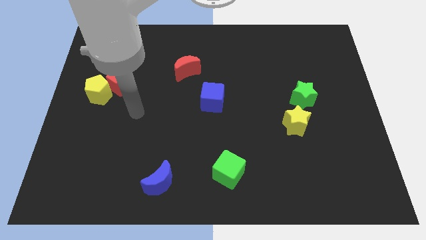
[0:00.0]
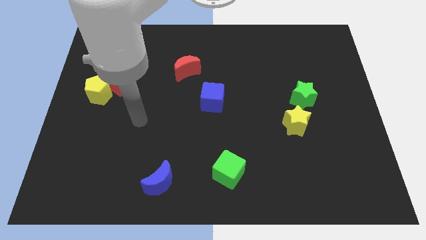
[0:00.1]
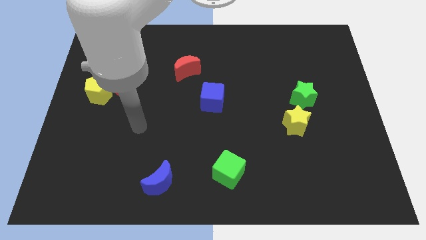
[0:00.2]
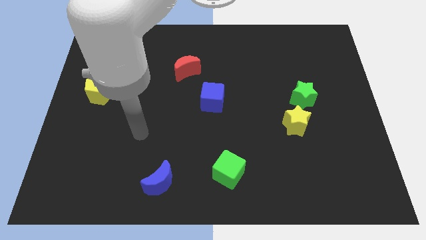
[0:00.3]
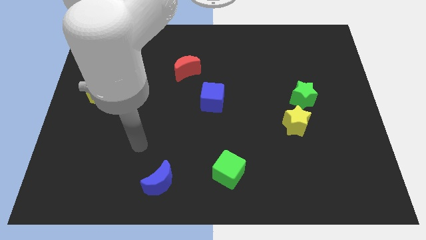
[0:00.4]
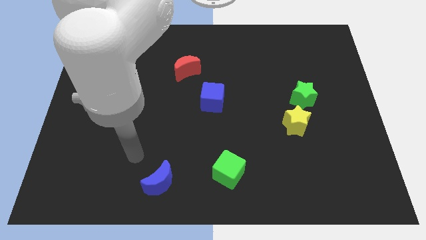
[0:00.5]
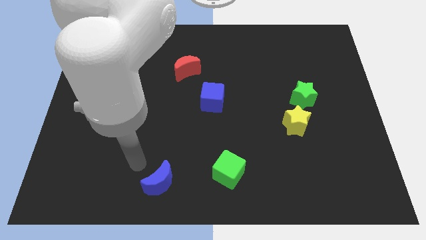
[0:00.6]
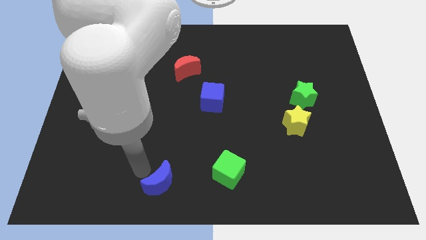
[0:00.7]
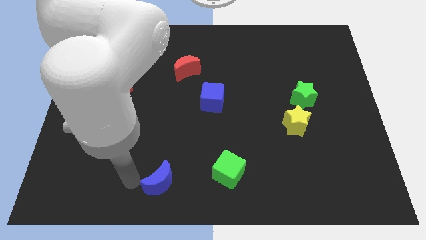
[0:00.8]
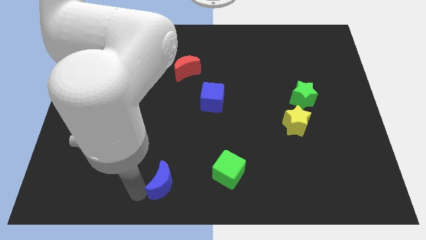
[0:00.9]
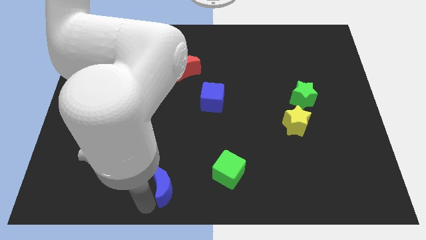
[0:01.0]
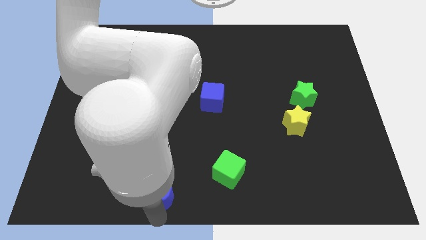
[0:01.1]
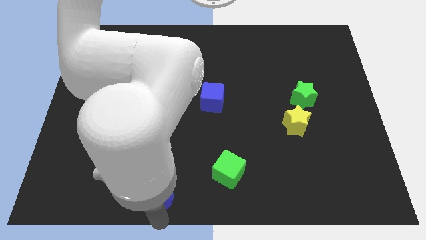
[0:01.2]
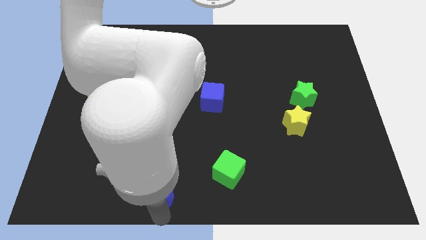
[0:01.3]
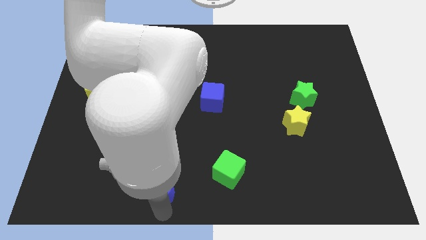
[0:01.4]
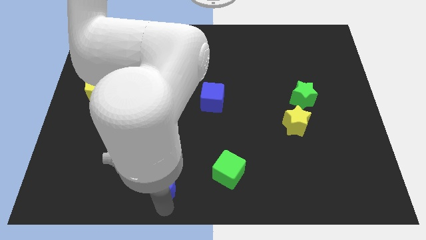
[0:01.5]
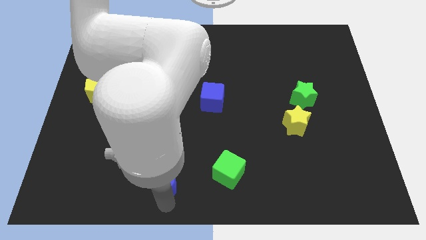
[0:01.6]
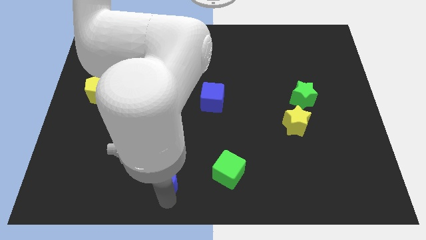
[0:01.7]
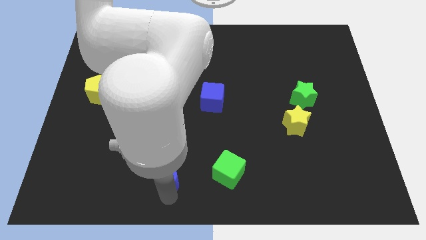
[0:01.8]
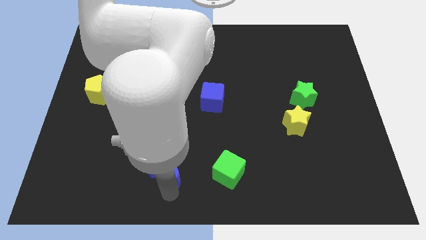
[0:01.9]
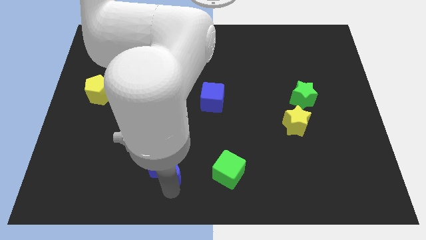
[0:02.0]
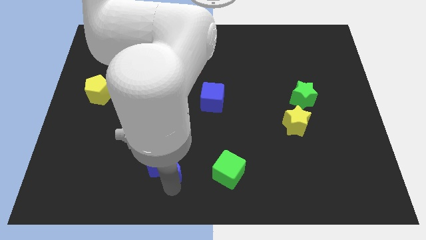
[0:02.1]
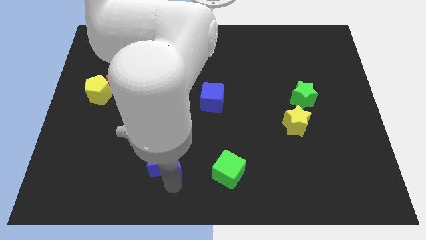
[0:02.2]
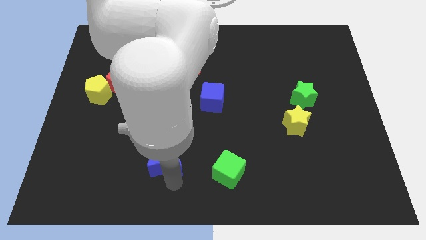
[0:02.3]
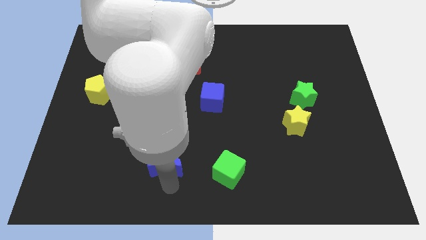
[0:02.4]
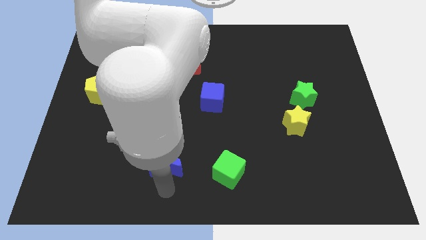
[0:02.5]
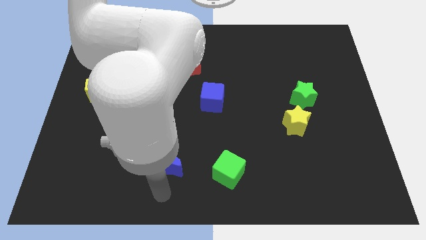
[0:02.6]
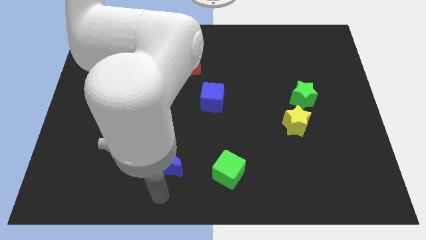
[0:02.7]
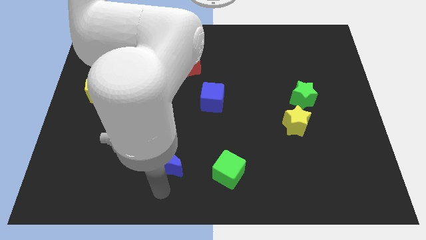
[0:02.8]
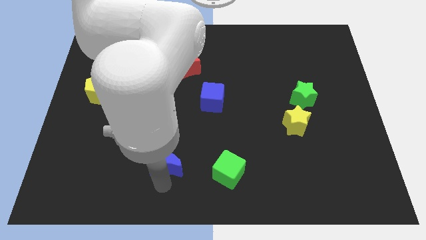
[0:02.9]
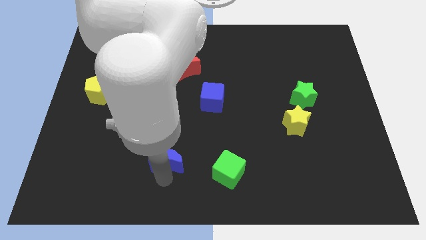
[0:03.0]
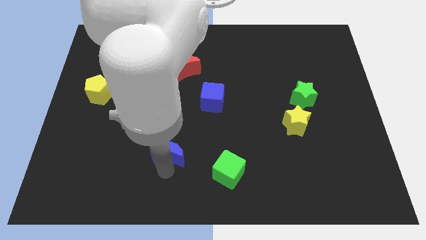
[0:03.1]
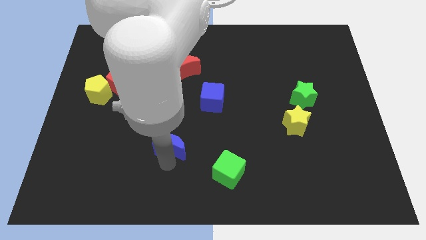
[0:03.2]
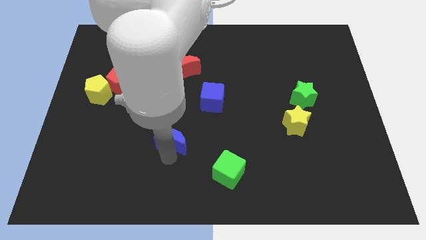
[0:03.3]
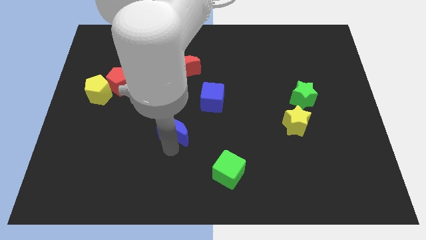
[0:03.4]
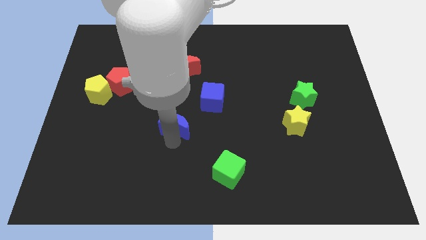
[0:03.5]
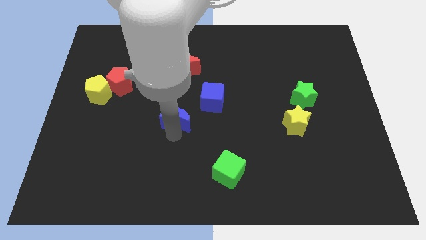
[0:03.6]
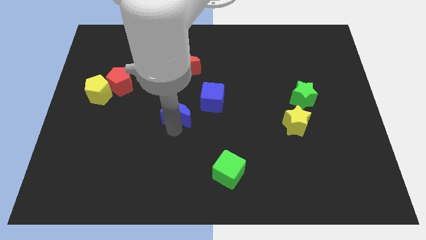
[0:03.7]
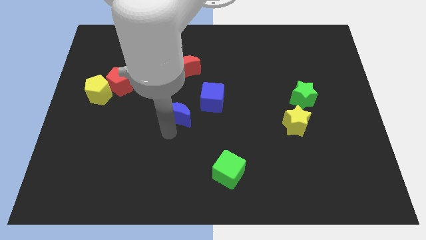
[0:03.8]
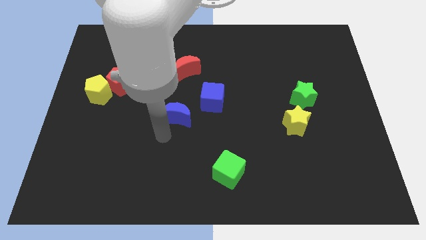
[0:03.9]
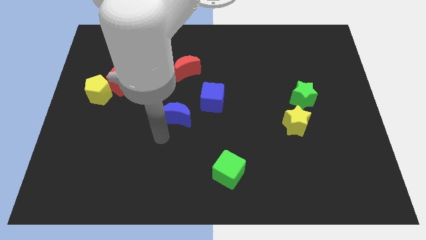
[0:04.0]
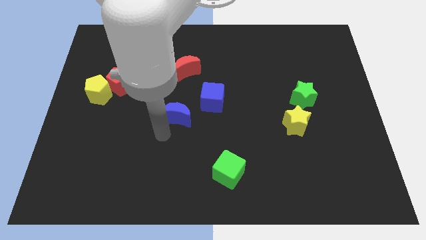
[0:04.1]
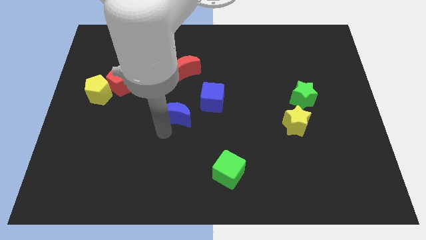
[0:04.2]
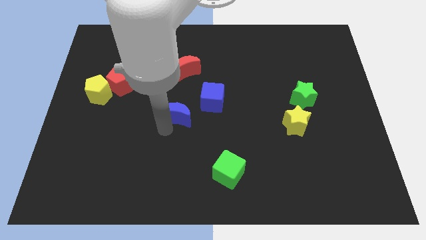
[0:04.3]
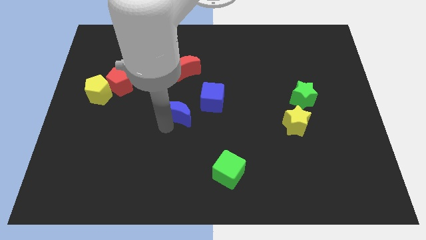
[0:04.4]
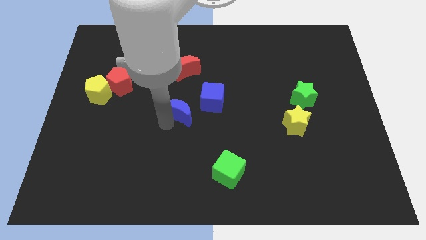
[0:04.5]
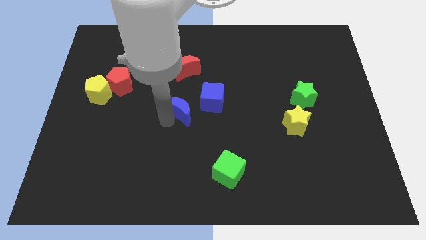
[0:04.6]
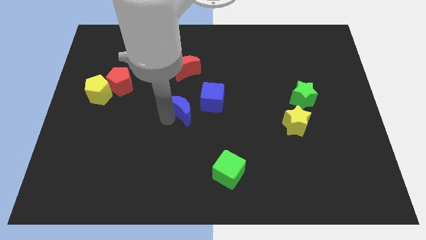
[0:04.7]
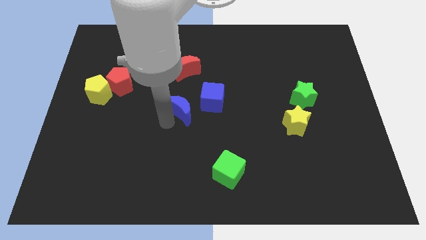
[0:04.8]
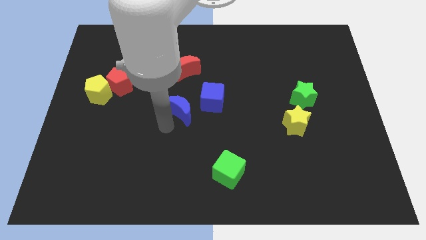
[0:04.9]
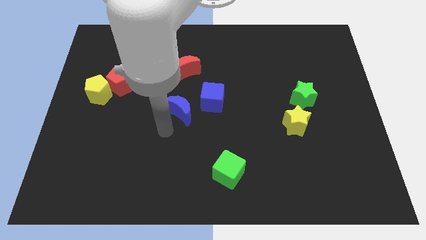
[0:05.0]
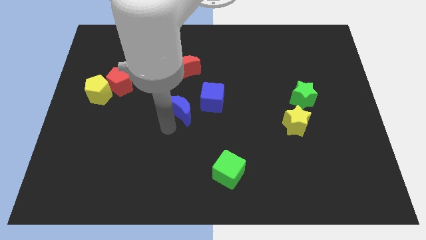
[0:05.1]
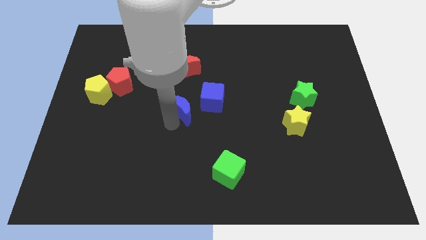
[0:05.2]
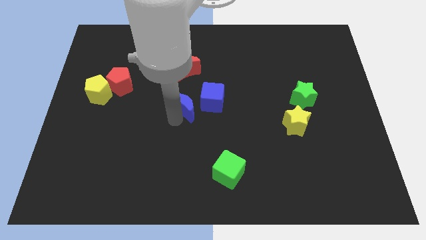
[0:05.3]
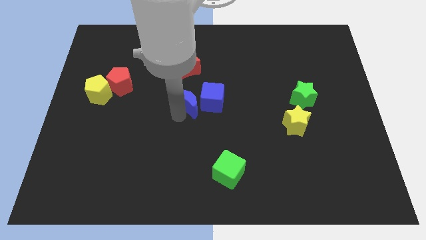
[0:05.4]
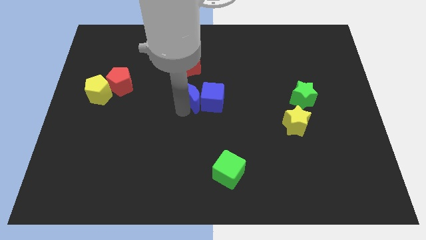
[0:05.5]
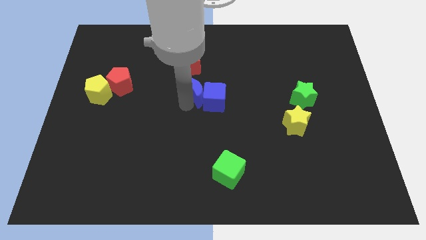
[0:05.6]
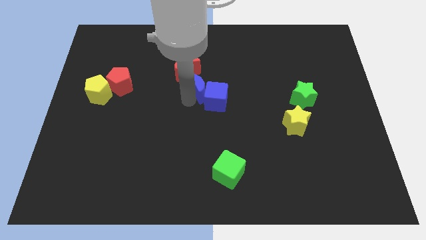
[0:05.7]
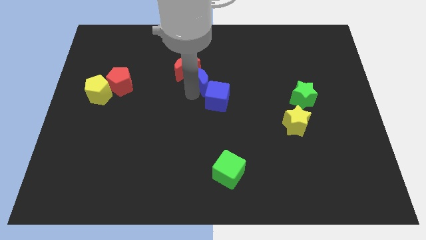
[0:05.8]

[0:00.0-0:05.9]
slide the blue moon just right of the red moon

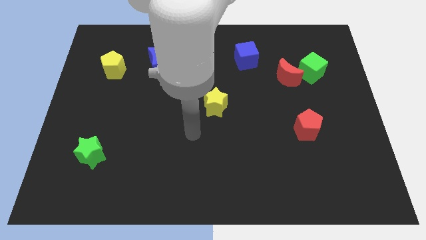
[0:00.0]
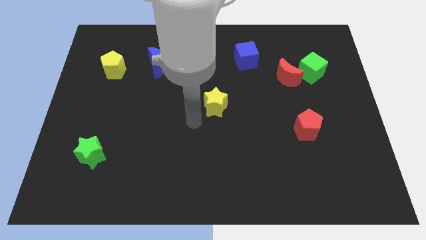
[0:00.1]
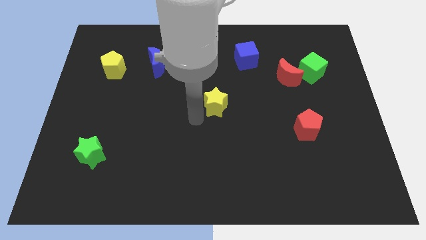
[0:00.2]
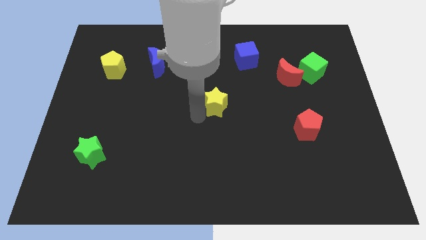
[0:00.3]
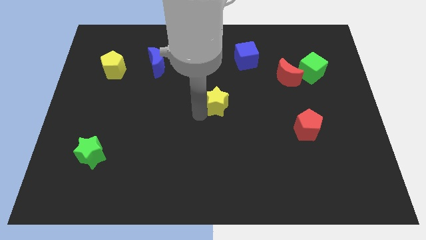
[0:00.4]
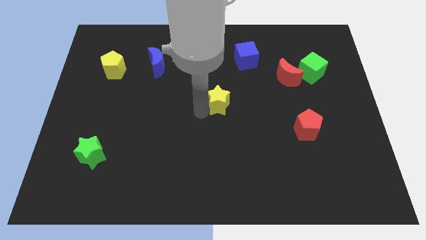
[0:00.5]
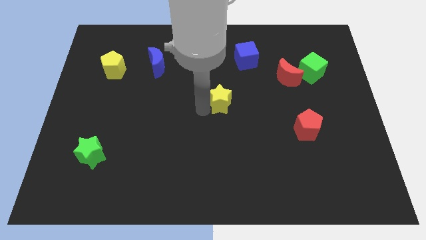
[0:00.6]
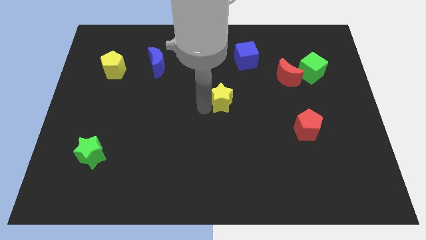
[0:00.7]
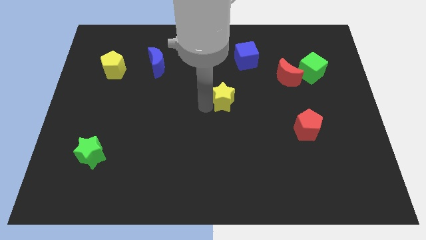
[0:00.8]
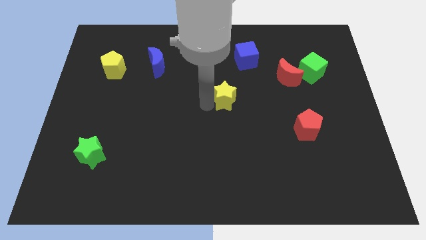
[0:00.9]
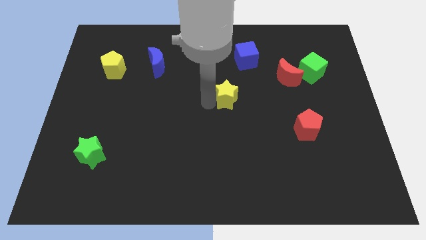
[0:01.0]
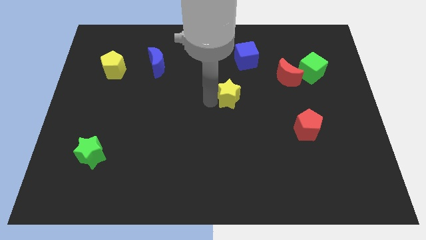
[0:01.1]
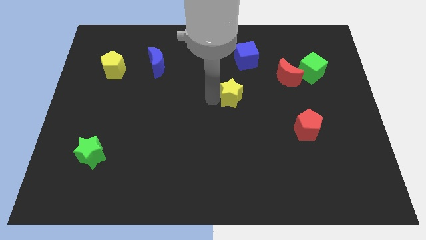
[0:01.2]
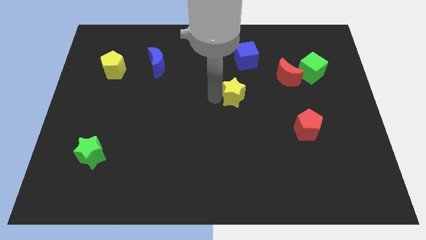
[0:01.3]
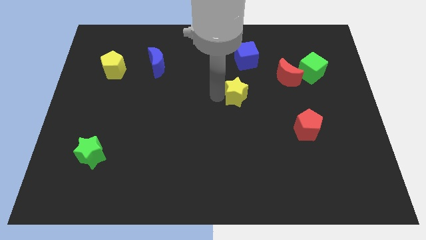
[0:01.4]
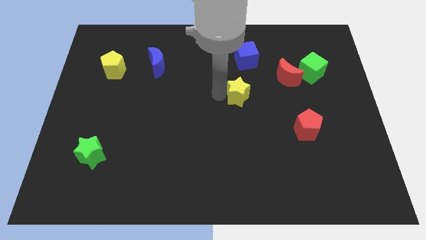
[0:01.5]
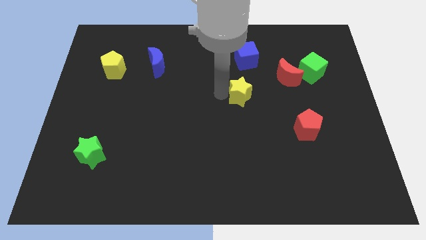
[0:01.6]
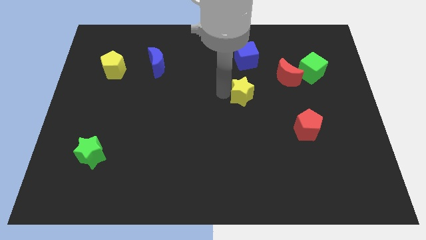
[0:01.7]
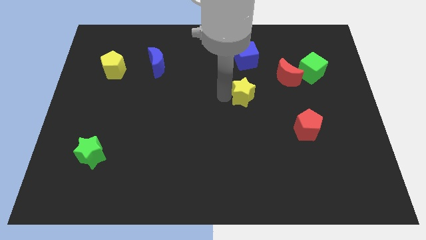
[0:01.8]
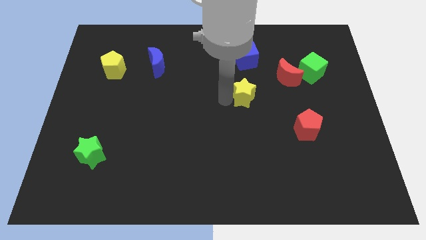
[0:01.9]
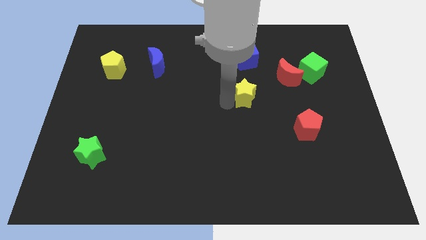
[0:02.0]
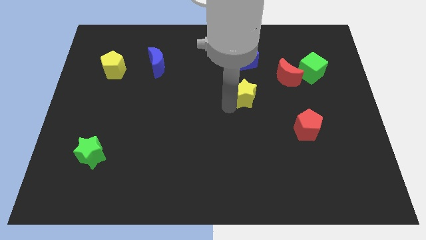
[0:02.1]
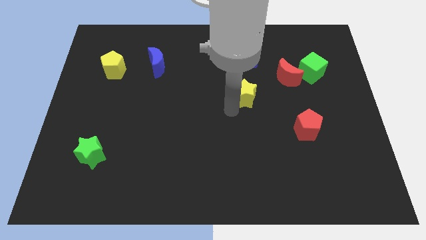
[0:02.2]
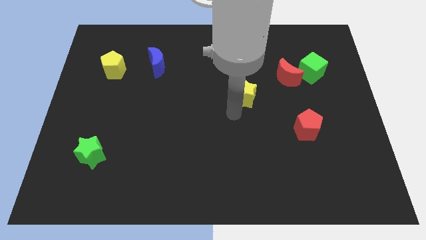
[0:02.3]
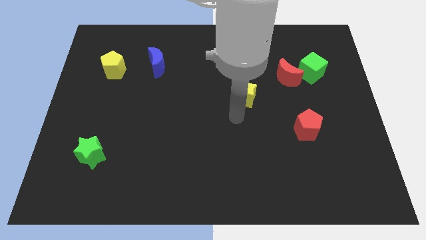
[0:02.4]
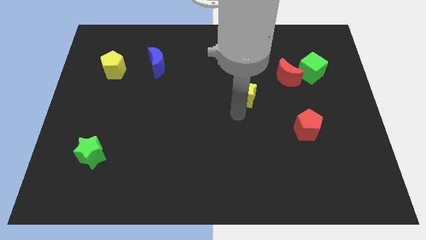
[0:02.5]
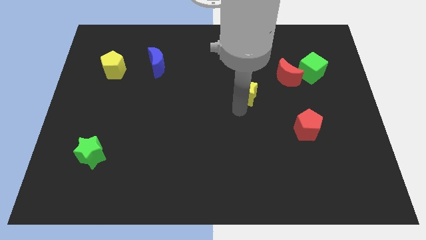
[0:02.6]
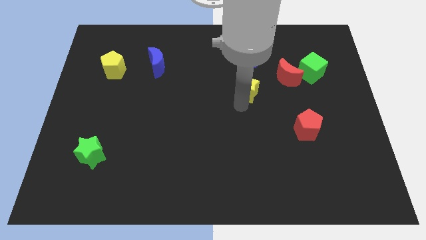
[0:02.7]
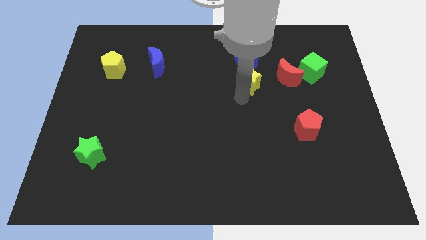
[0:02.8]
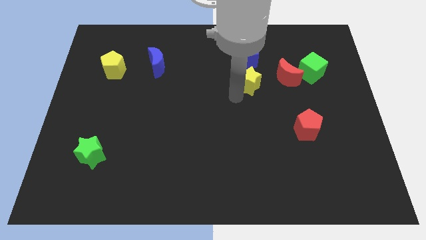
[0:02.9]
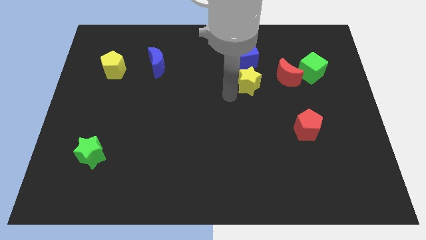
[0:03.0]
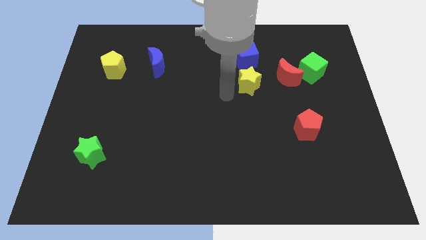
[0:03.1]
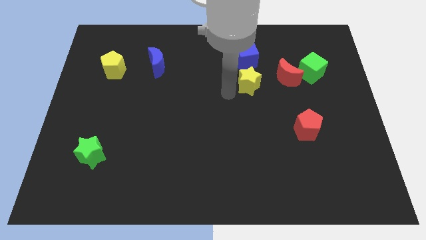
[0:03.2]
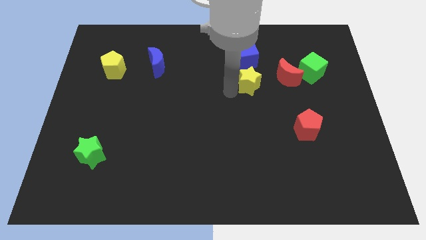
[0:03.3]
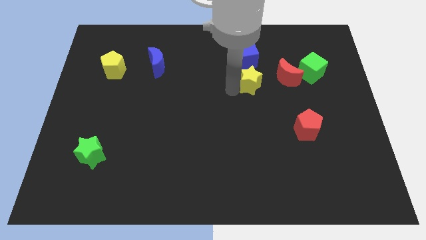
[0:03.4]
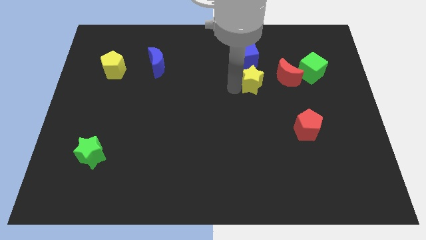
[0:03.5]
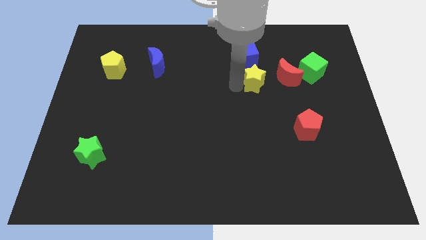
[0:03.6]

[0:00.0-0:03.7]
slide the yellow star to the bottom right of the blue cube
